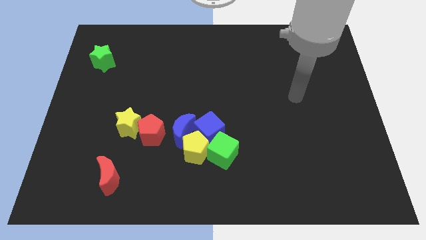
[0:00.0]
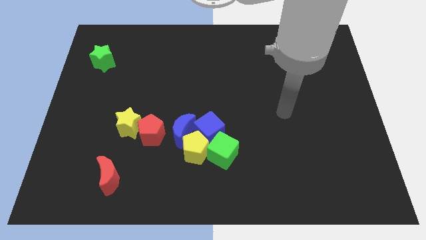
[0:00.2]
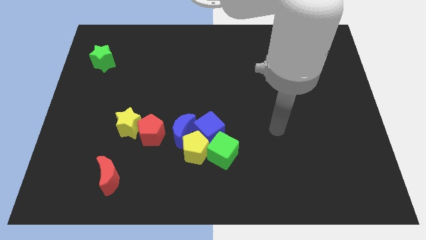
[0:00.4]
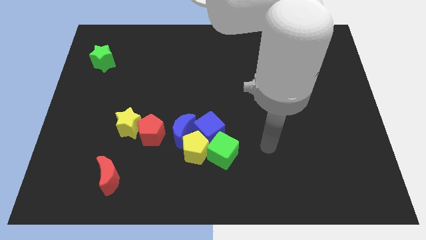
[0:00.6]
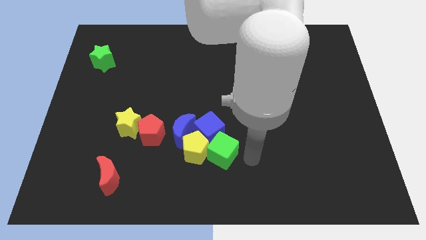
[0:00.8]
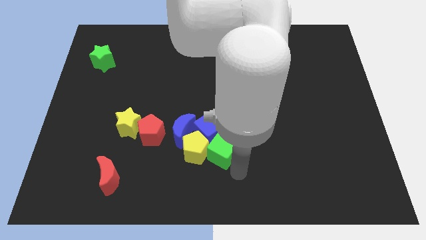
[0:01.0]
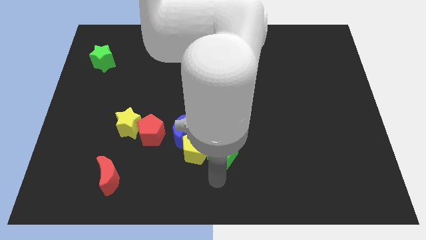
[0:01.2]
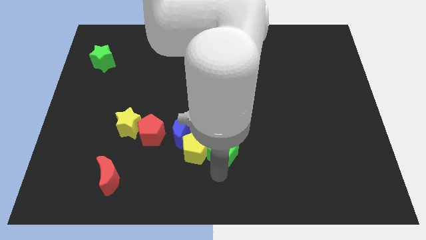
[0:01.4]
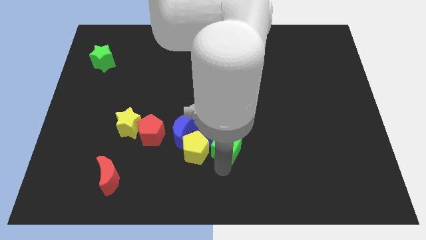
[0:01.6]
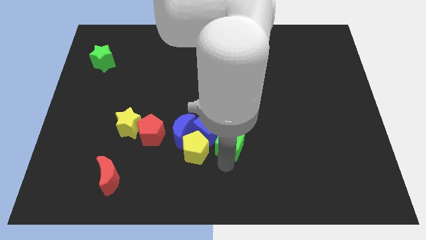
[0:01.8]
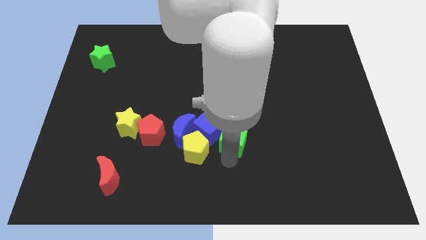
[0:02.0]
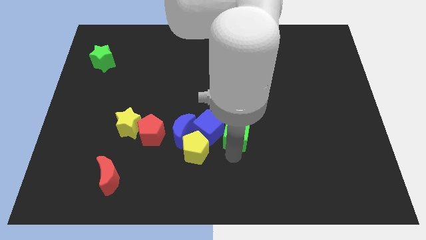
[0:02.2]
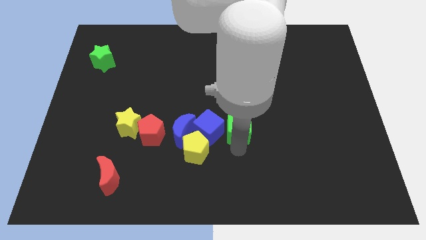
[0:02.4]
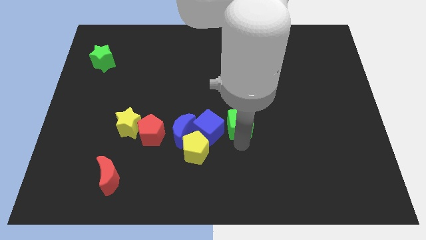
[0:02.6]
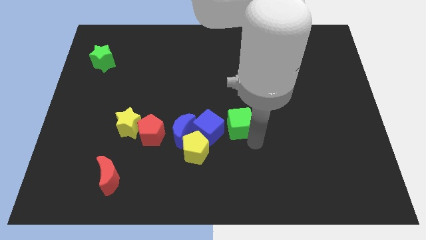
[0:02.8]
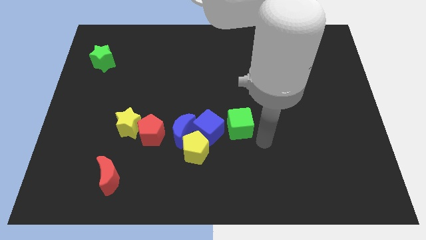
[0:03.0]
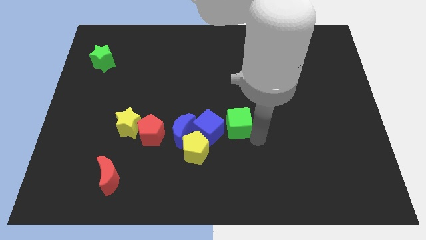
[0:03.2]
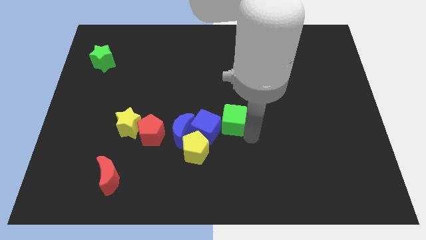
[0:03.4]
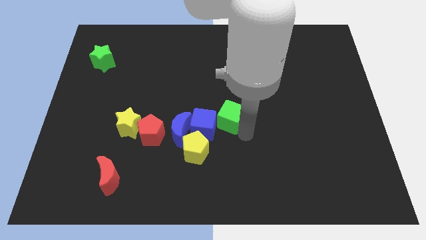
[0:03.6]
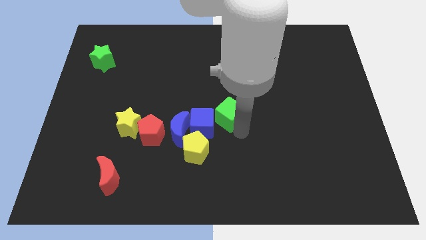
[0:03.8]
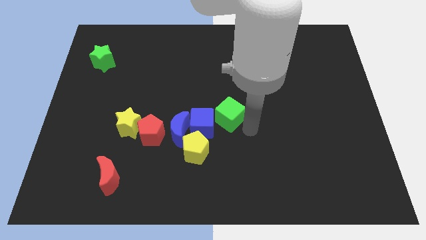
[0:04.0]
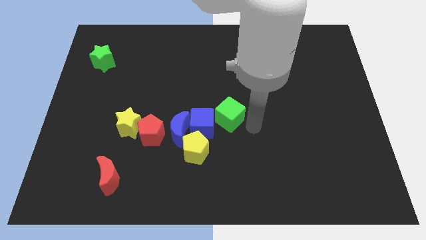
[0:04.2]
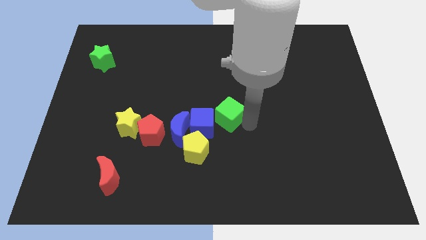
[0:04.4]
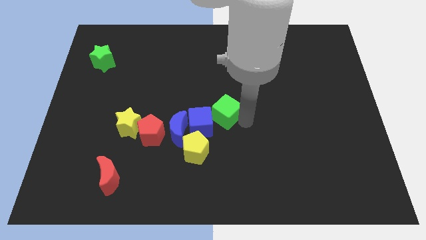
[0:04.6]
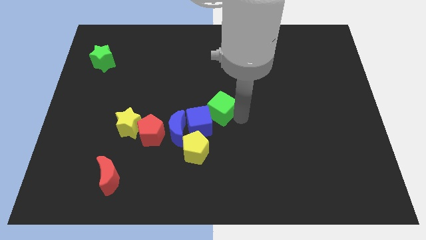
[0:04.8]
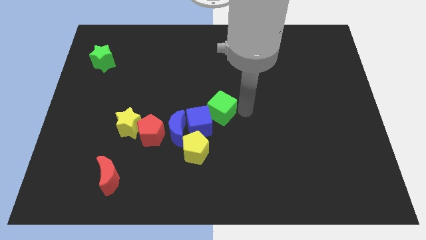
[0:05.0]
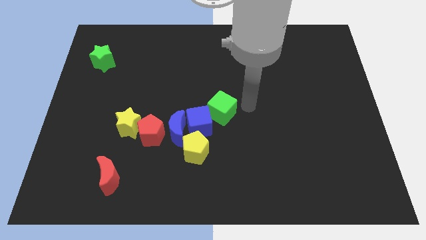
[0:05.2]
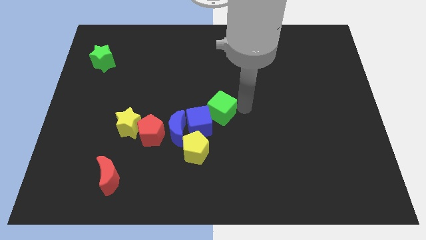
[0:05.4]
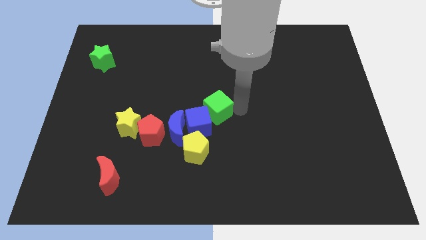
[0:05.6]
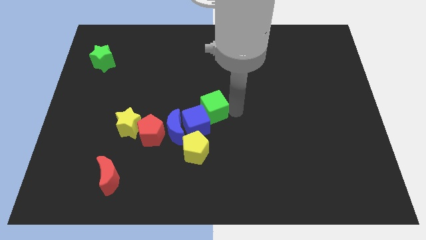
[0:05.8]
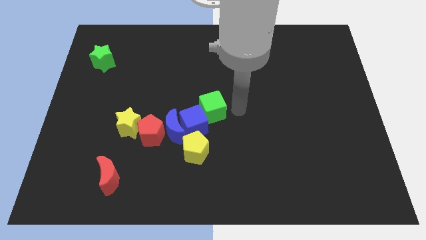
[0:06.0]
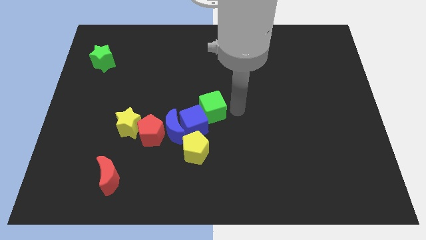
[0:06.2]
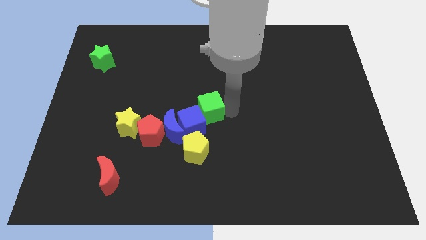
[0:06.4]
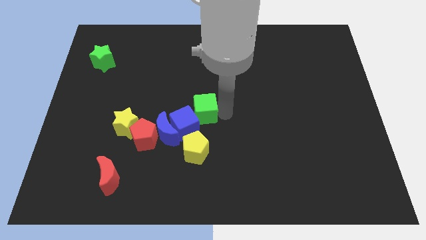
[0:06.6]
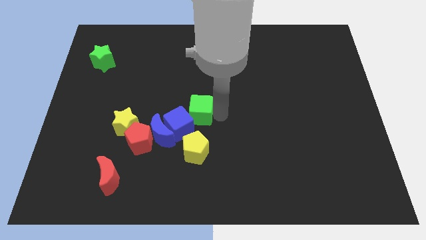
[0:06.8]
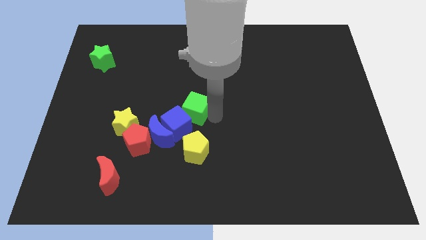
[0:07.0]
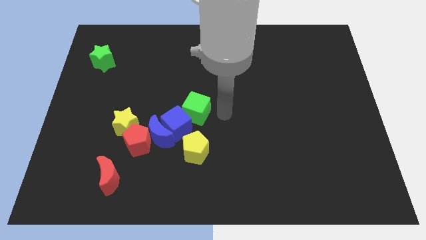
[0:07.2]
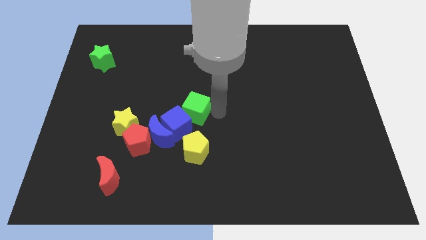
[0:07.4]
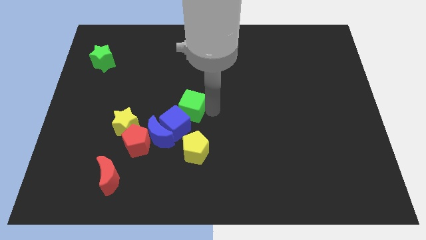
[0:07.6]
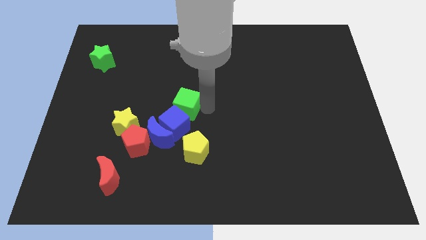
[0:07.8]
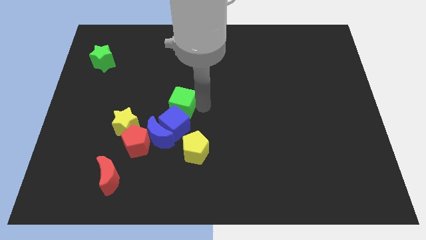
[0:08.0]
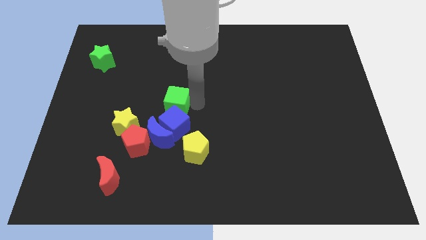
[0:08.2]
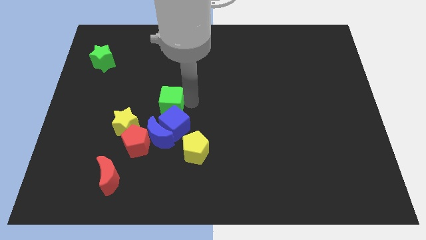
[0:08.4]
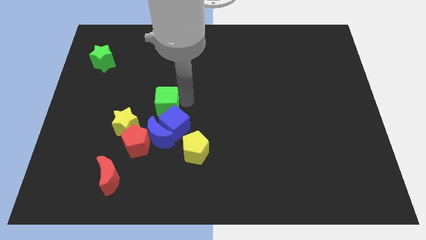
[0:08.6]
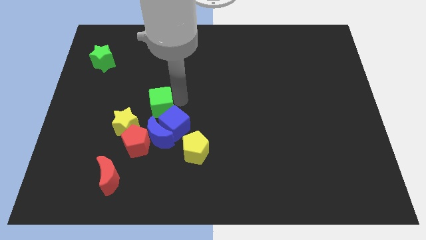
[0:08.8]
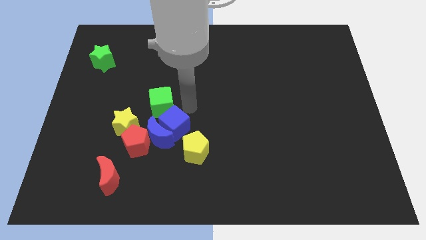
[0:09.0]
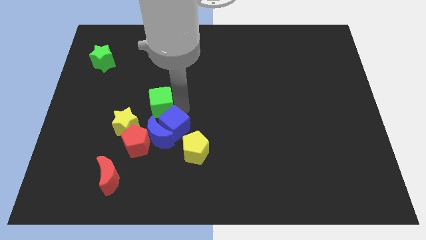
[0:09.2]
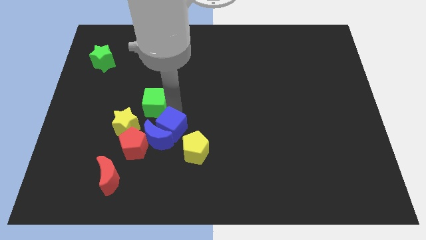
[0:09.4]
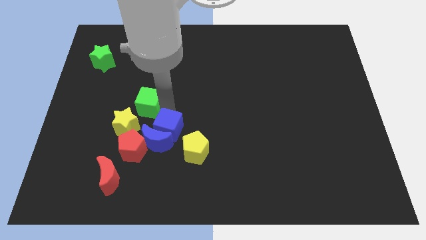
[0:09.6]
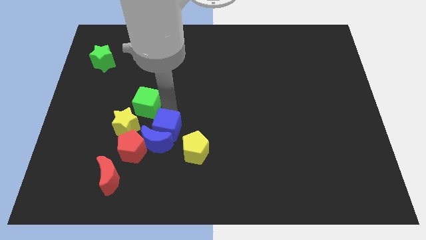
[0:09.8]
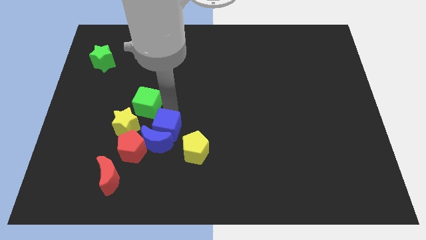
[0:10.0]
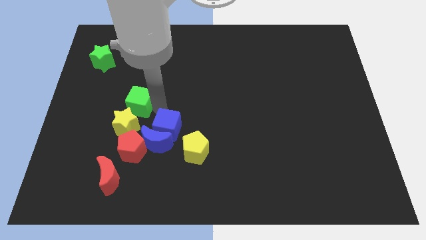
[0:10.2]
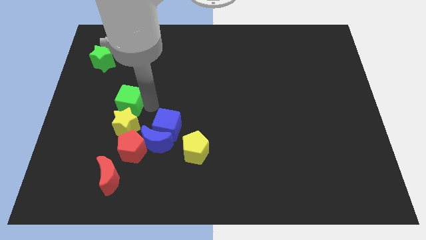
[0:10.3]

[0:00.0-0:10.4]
move the green cube to the top left of the yellow star

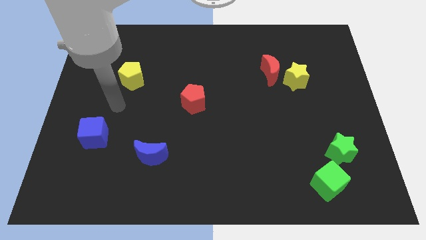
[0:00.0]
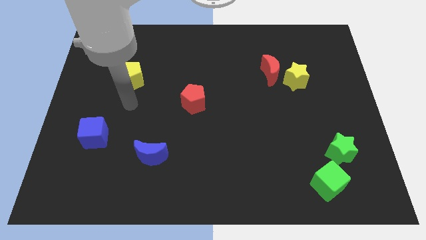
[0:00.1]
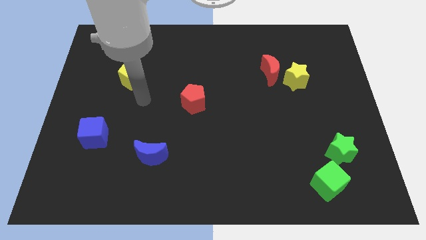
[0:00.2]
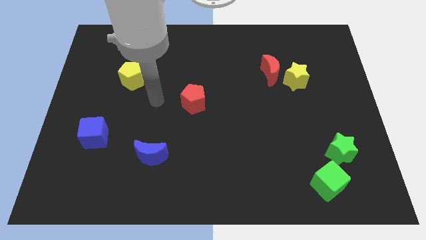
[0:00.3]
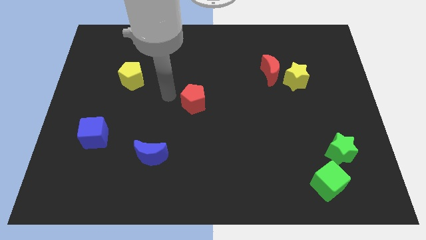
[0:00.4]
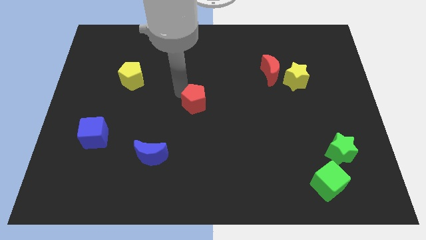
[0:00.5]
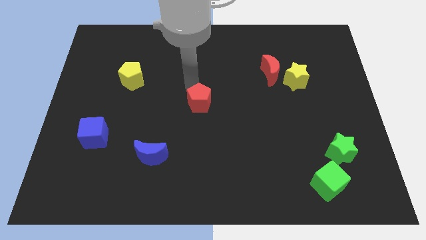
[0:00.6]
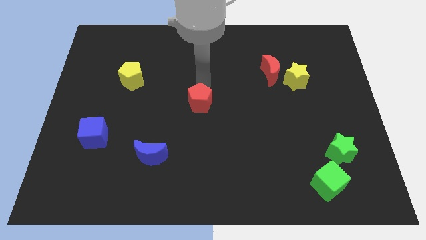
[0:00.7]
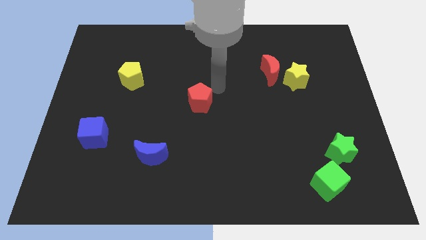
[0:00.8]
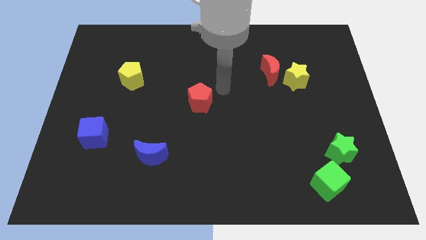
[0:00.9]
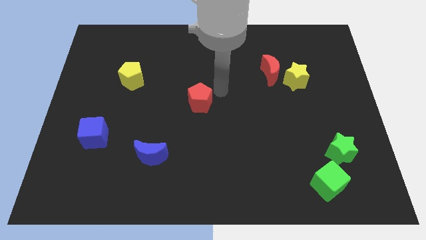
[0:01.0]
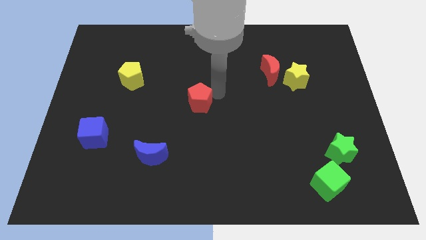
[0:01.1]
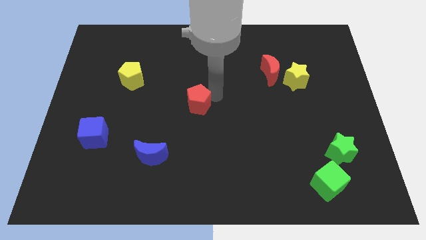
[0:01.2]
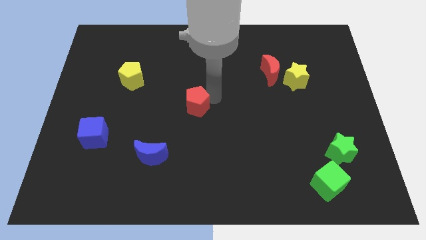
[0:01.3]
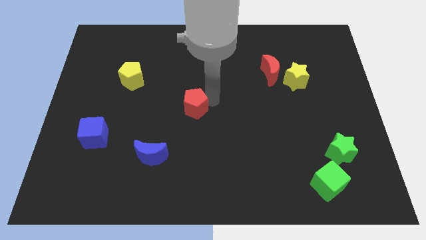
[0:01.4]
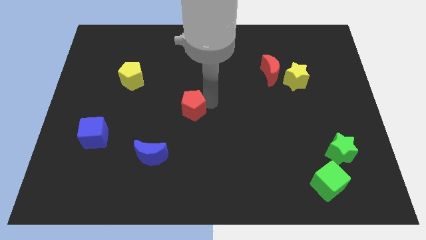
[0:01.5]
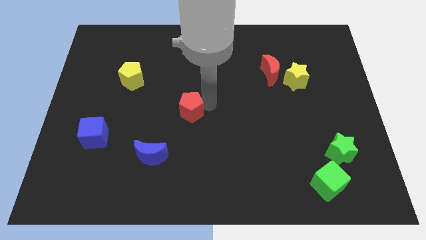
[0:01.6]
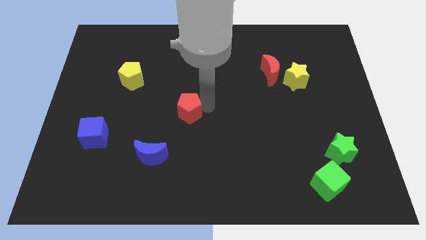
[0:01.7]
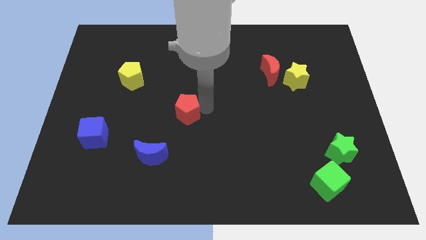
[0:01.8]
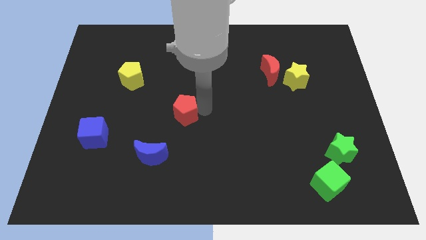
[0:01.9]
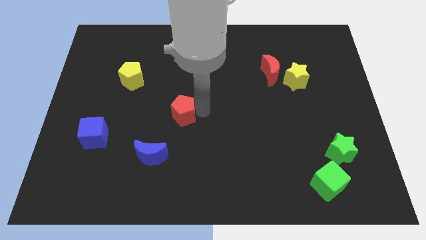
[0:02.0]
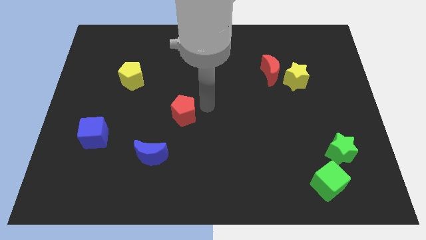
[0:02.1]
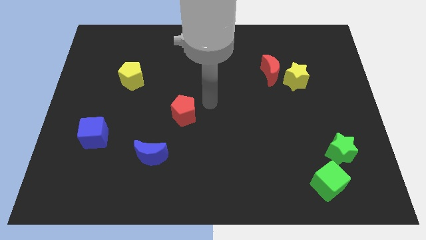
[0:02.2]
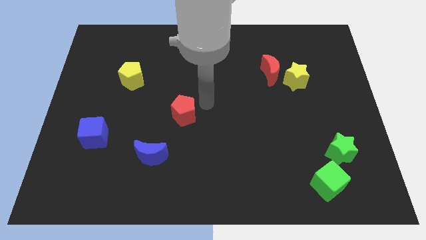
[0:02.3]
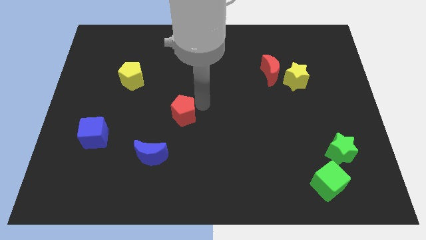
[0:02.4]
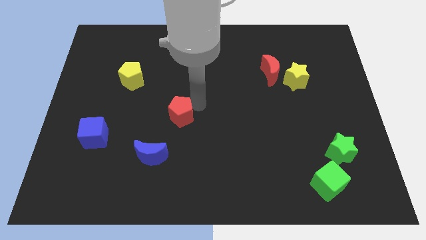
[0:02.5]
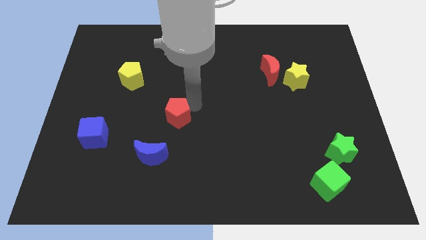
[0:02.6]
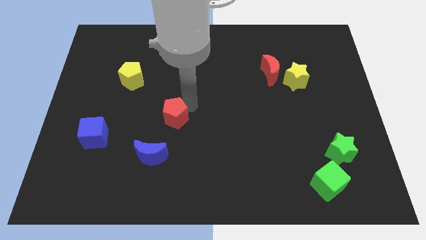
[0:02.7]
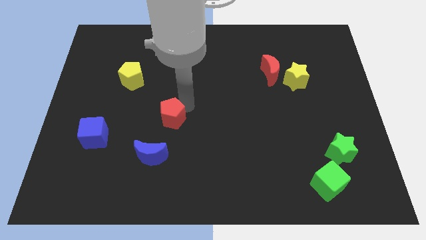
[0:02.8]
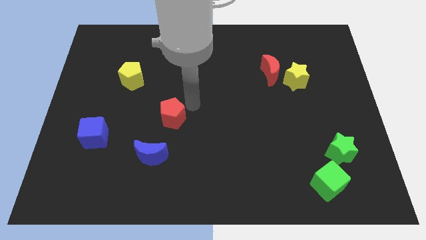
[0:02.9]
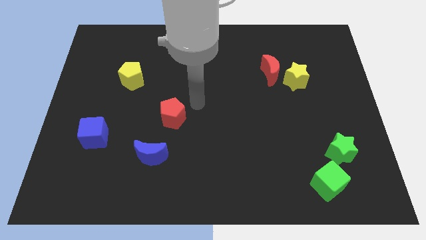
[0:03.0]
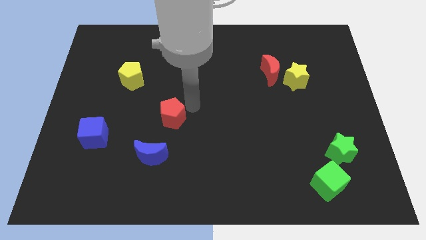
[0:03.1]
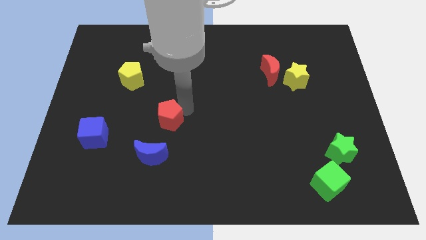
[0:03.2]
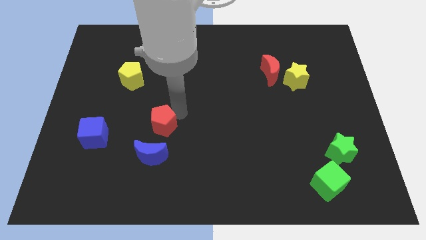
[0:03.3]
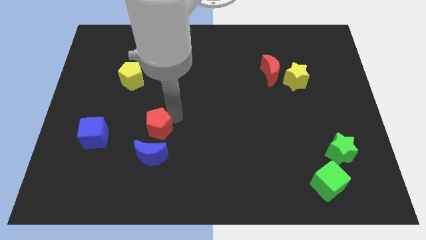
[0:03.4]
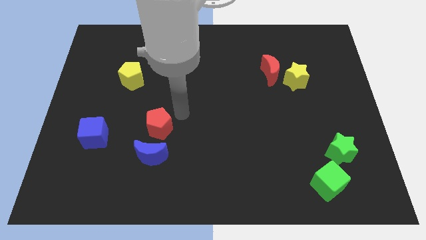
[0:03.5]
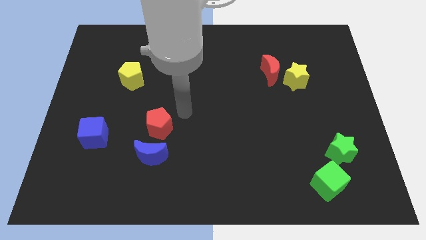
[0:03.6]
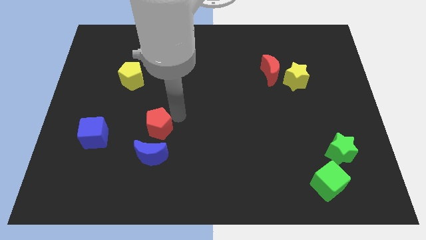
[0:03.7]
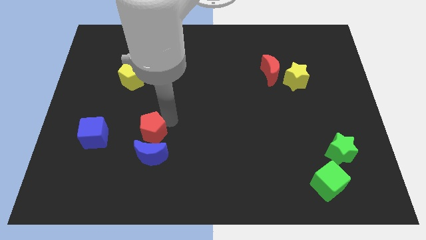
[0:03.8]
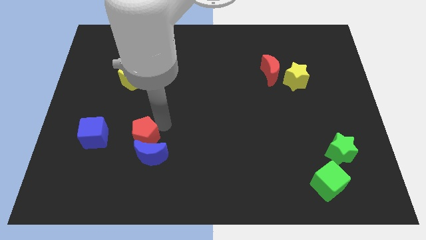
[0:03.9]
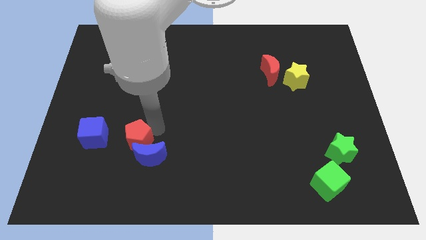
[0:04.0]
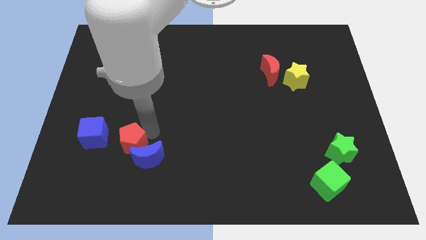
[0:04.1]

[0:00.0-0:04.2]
move the red pentagon left of the blue moon
